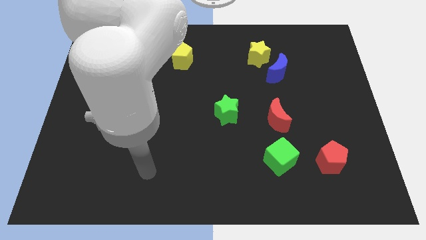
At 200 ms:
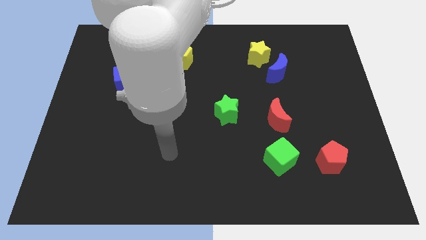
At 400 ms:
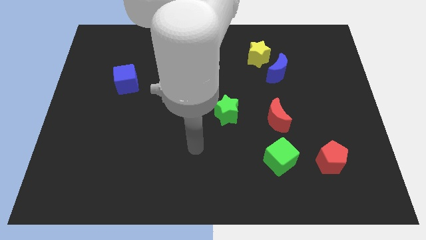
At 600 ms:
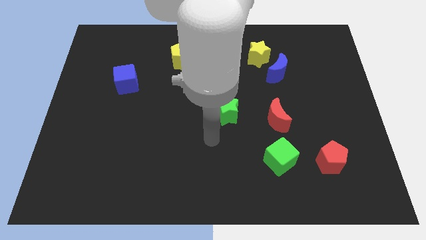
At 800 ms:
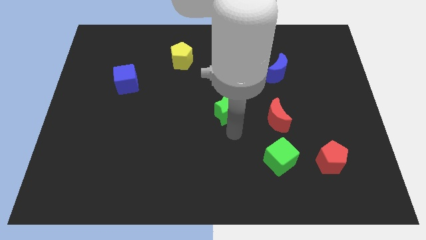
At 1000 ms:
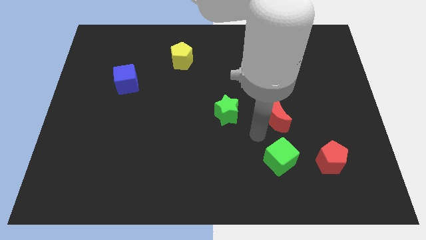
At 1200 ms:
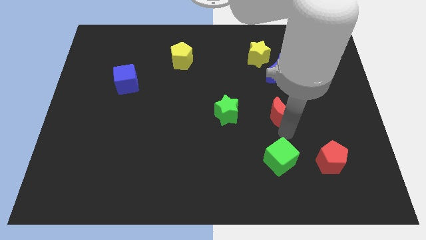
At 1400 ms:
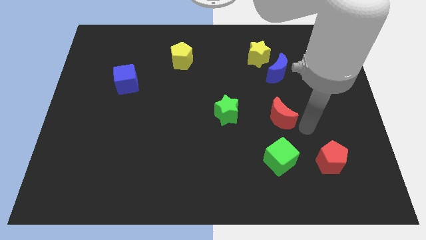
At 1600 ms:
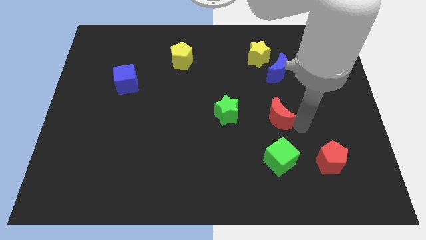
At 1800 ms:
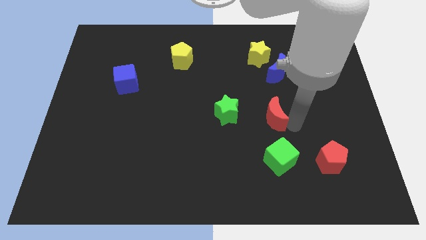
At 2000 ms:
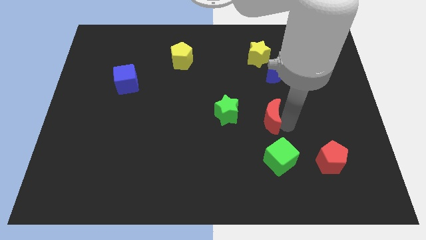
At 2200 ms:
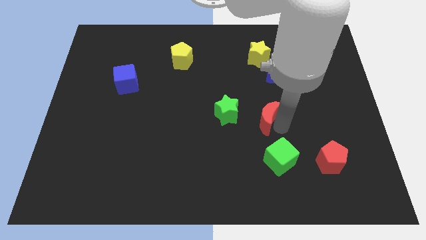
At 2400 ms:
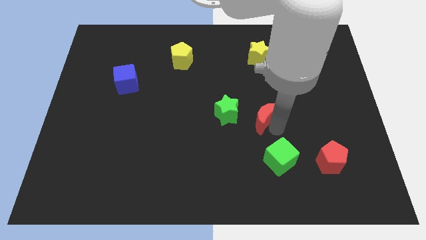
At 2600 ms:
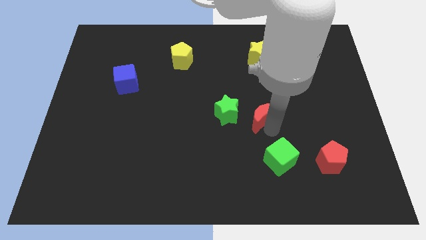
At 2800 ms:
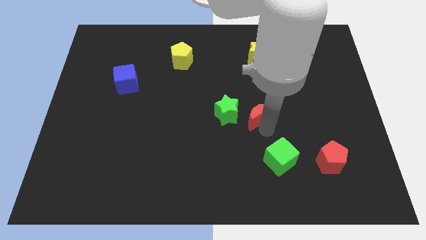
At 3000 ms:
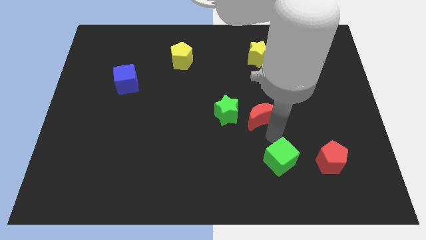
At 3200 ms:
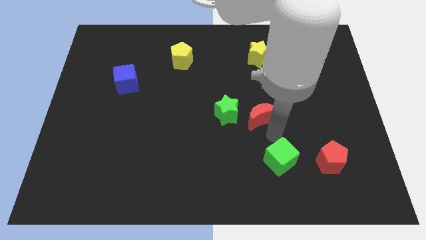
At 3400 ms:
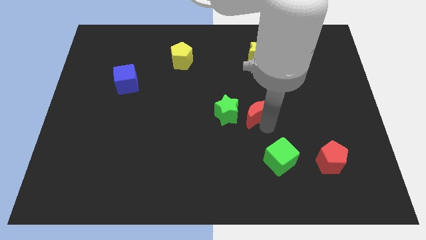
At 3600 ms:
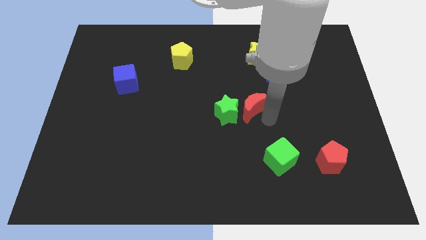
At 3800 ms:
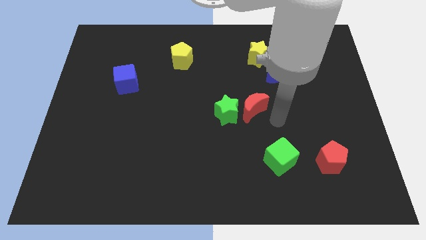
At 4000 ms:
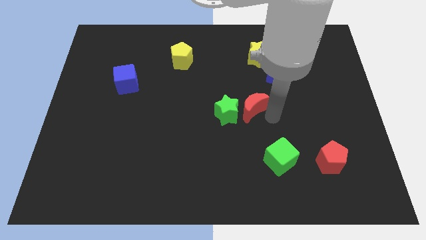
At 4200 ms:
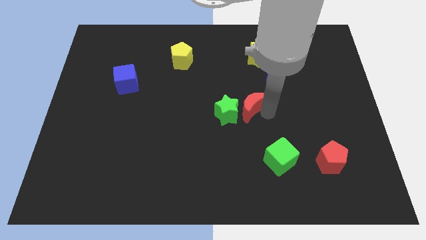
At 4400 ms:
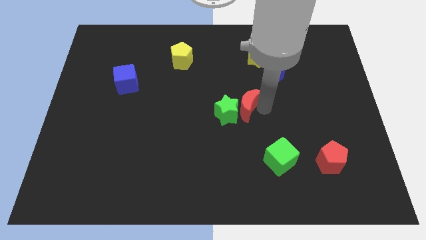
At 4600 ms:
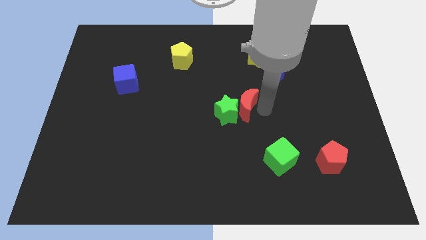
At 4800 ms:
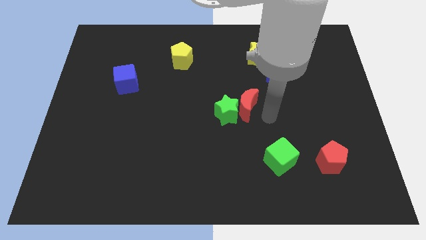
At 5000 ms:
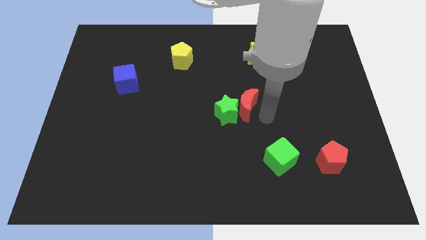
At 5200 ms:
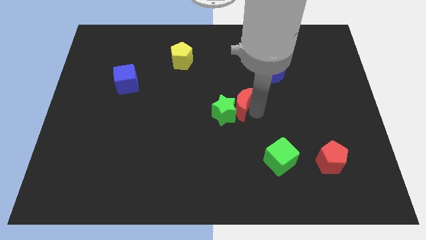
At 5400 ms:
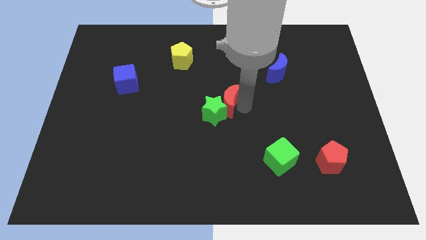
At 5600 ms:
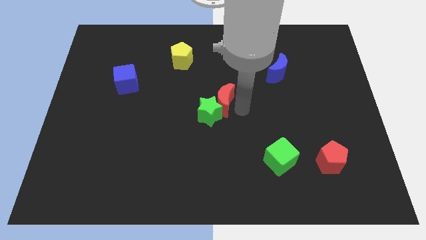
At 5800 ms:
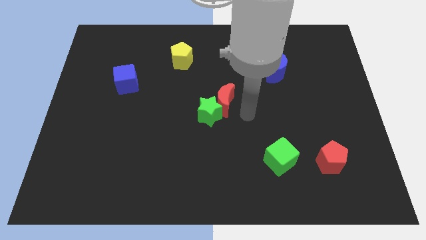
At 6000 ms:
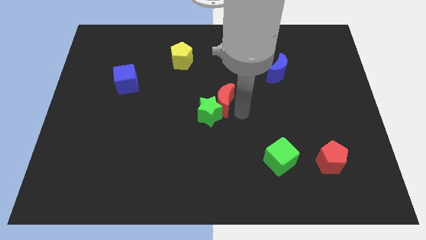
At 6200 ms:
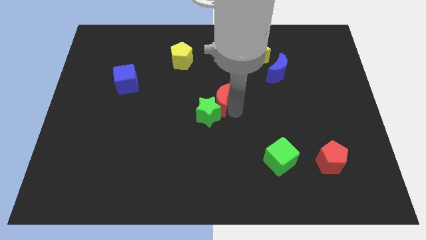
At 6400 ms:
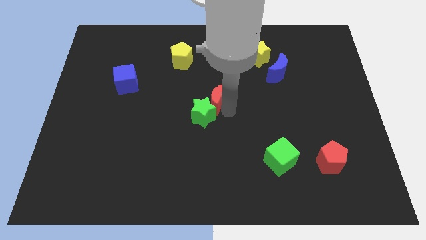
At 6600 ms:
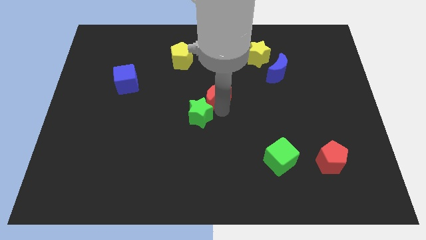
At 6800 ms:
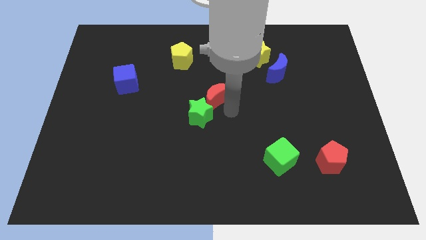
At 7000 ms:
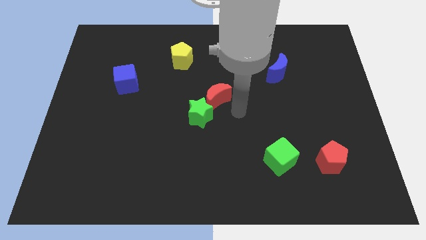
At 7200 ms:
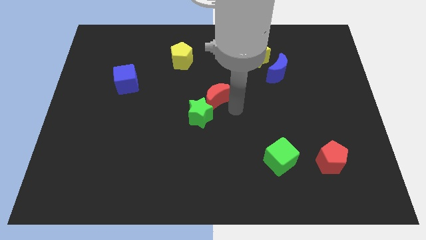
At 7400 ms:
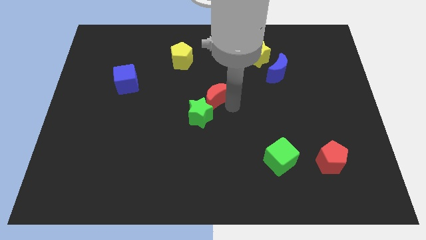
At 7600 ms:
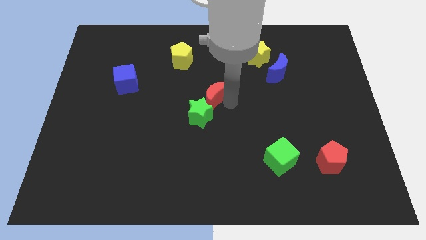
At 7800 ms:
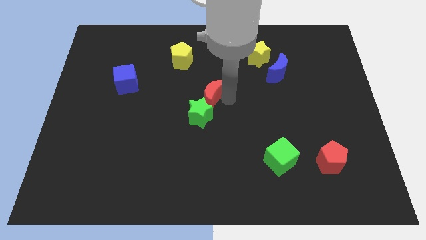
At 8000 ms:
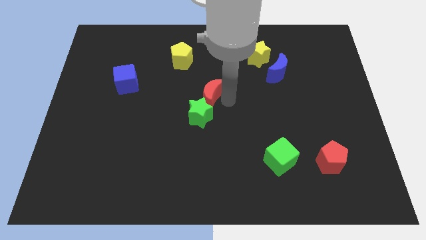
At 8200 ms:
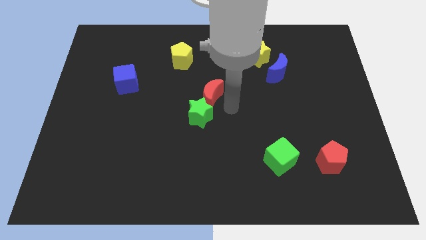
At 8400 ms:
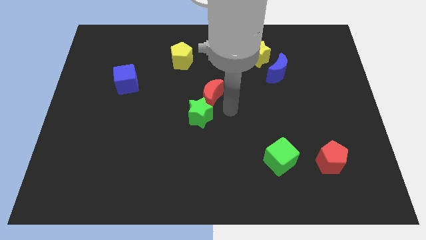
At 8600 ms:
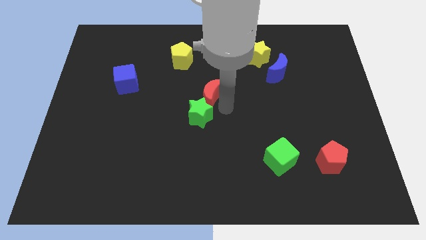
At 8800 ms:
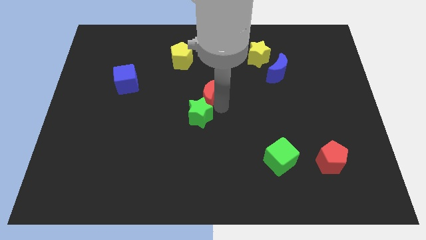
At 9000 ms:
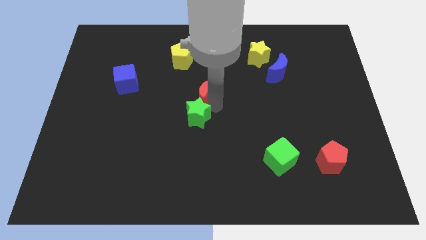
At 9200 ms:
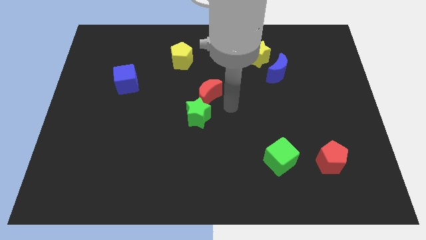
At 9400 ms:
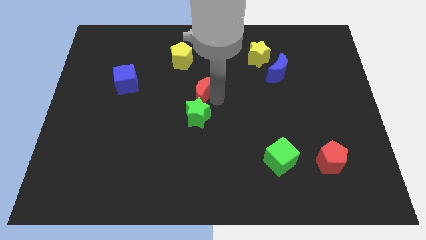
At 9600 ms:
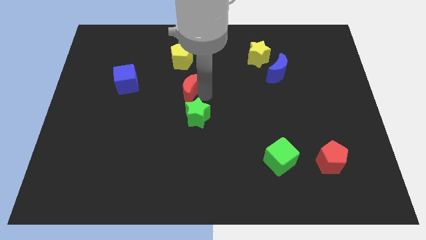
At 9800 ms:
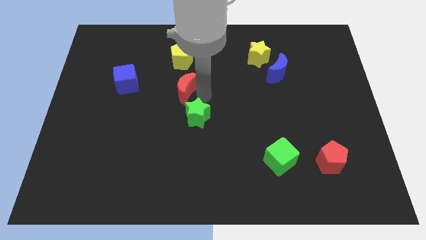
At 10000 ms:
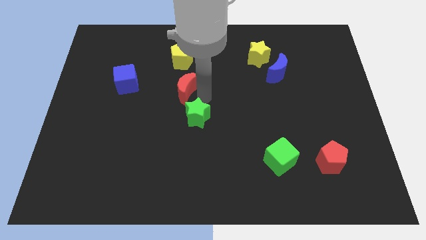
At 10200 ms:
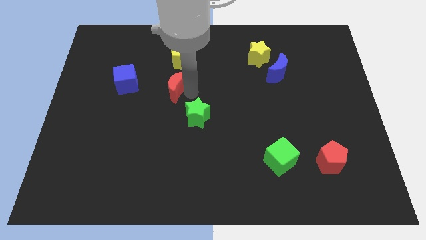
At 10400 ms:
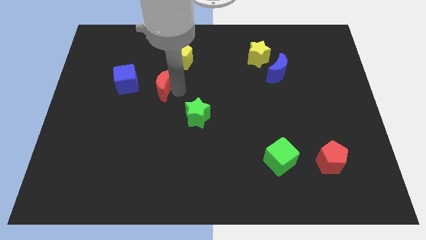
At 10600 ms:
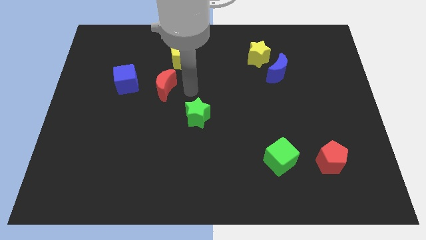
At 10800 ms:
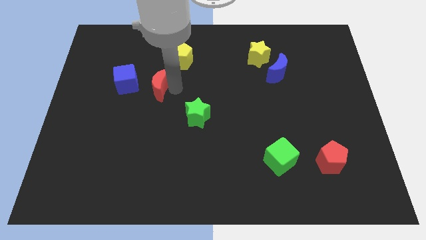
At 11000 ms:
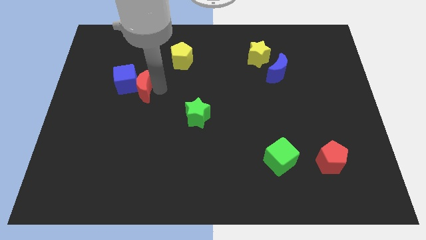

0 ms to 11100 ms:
move the red moon next to the blue cube

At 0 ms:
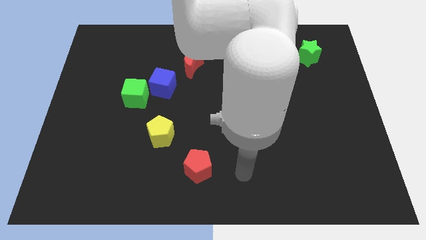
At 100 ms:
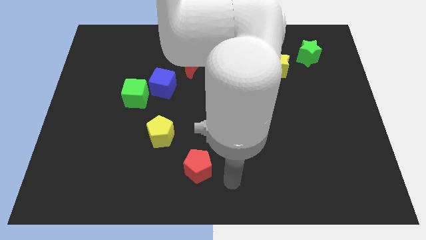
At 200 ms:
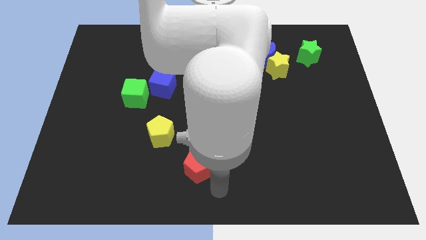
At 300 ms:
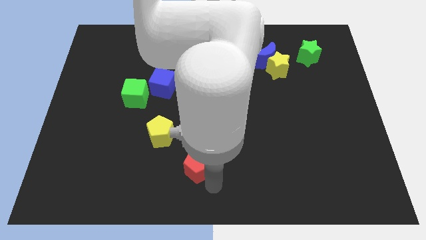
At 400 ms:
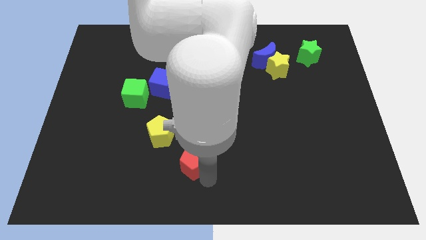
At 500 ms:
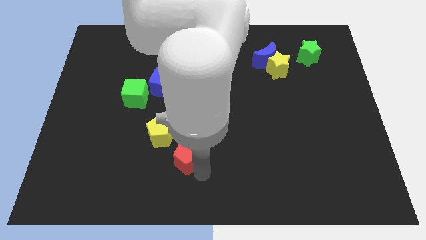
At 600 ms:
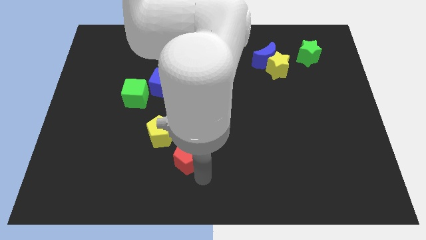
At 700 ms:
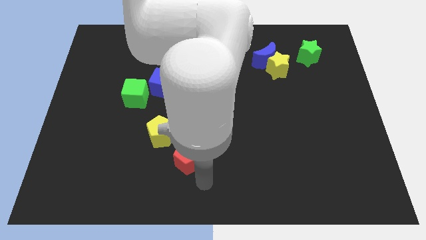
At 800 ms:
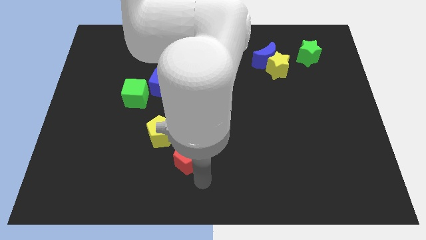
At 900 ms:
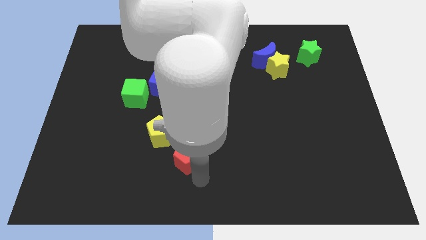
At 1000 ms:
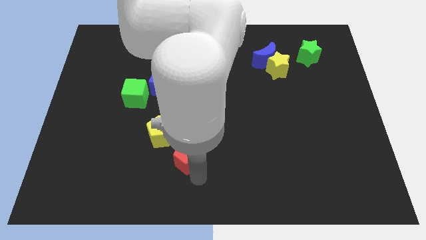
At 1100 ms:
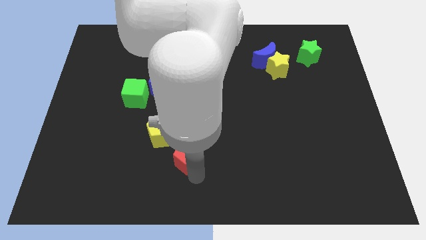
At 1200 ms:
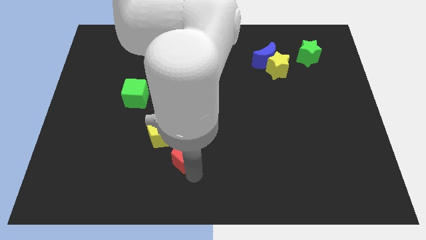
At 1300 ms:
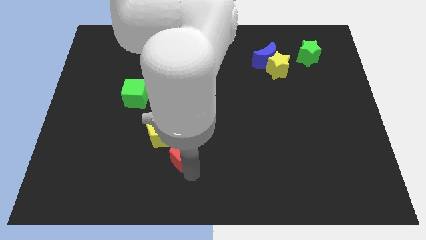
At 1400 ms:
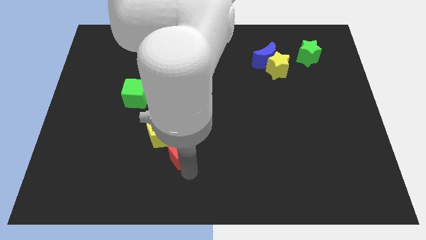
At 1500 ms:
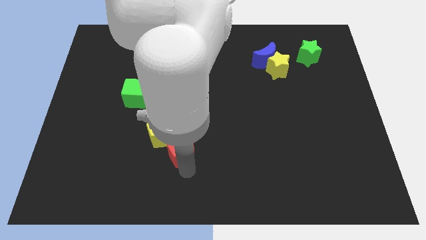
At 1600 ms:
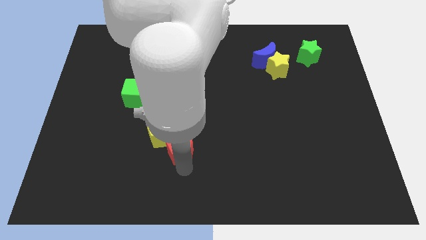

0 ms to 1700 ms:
move the red pentagon to the yellow pentagon

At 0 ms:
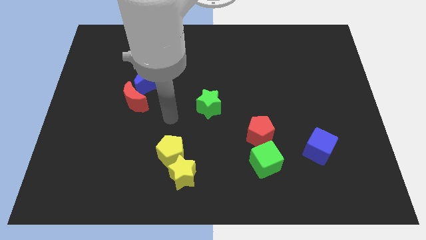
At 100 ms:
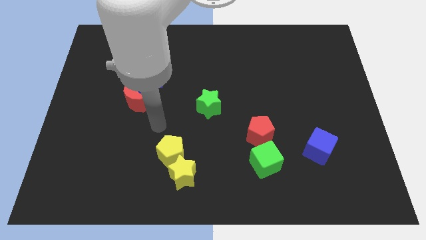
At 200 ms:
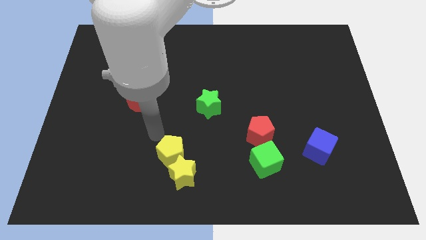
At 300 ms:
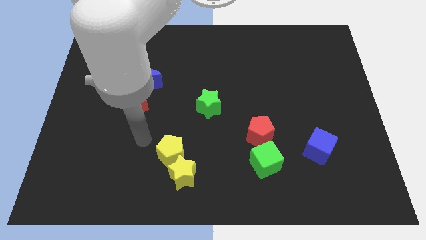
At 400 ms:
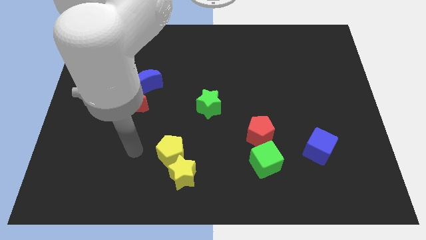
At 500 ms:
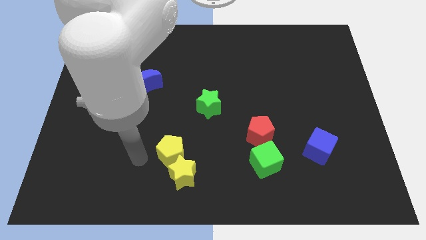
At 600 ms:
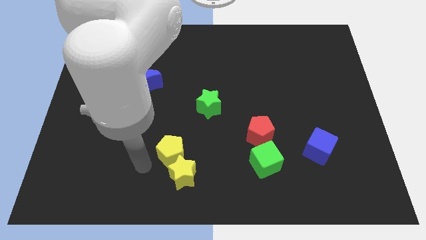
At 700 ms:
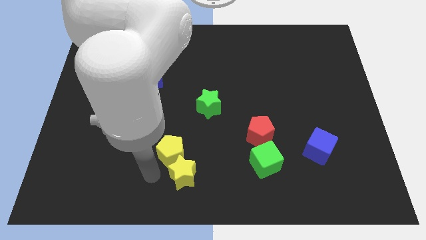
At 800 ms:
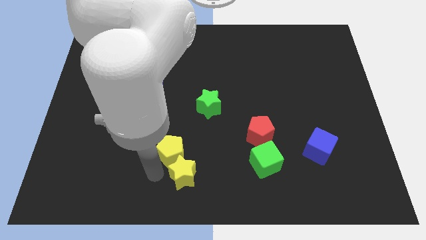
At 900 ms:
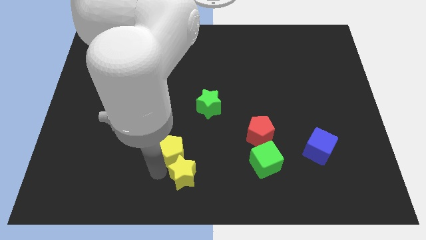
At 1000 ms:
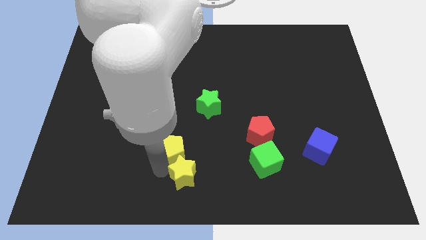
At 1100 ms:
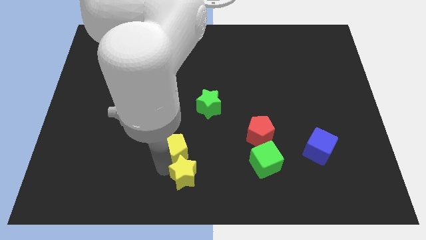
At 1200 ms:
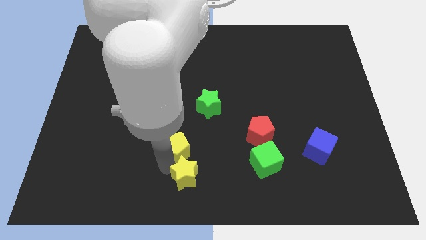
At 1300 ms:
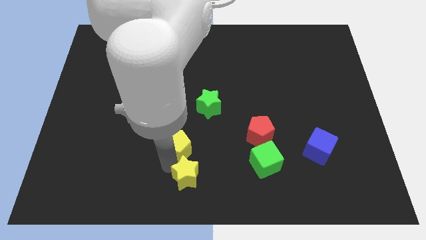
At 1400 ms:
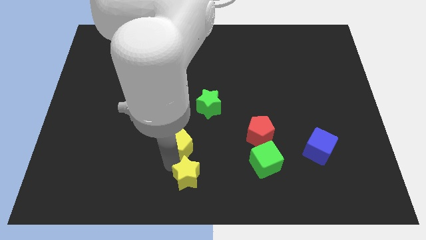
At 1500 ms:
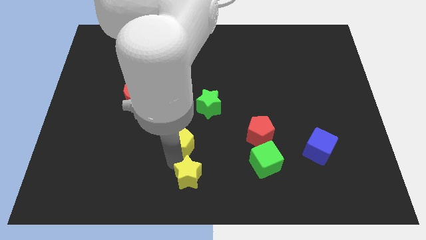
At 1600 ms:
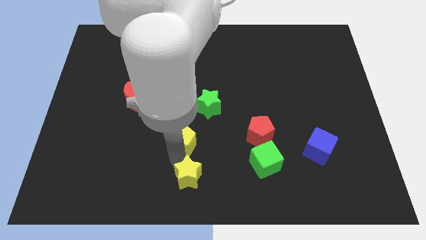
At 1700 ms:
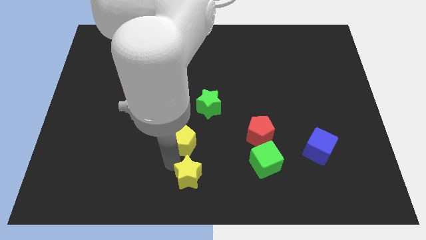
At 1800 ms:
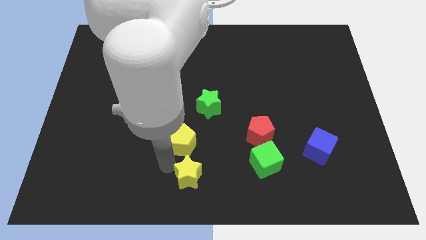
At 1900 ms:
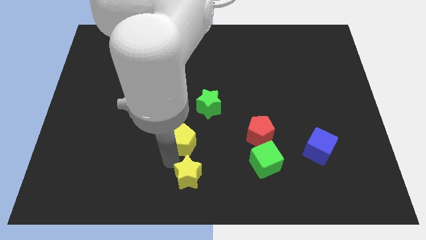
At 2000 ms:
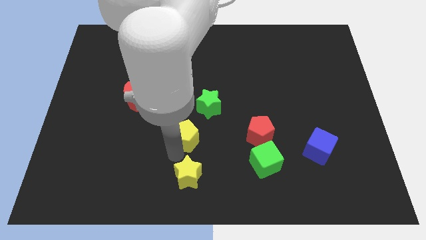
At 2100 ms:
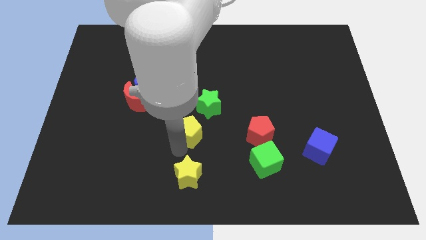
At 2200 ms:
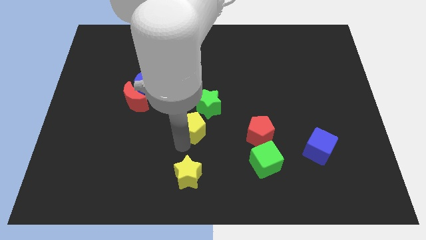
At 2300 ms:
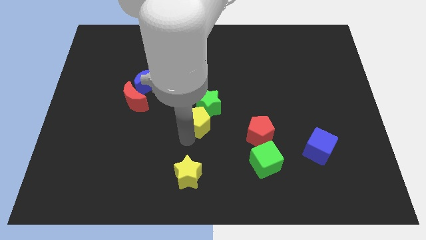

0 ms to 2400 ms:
put the yellow pentagon next to the green star
